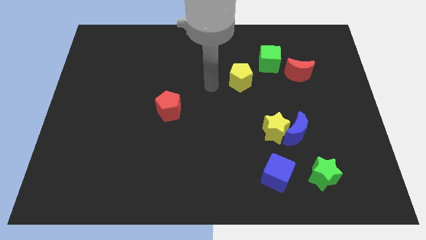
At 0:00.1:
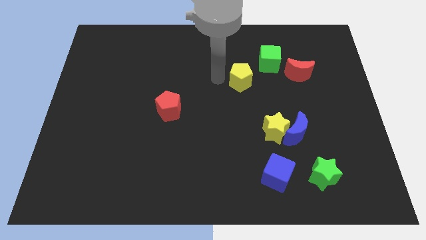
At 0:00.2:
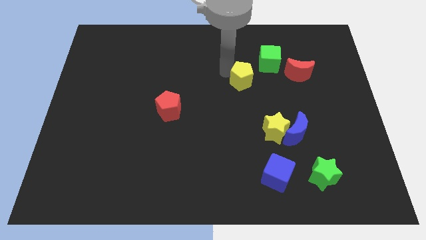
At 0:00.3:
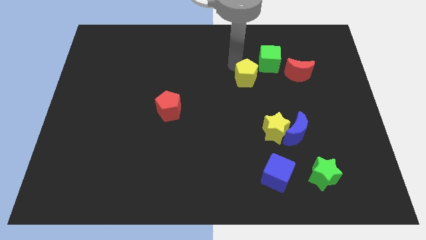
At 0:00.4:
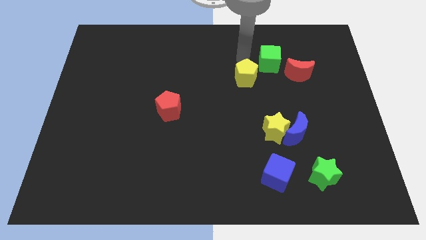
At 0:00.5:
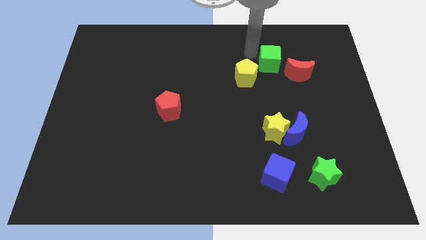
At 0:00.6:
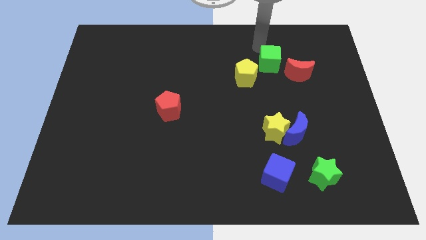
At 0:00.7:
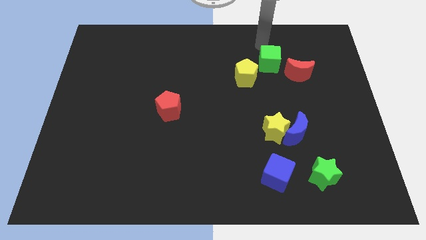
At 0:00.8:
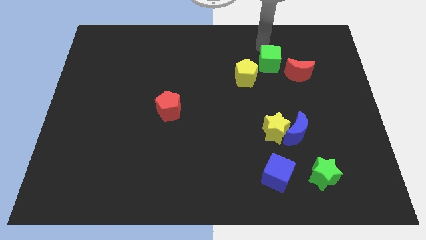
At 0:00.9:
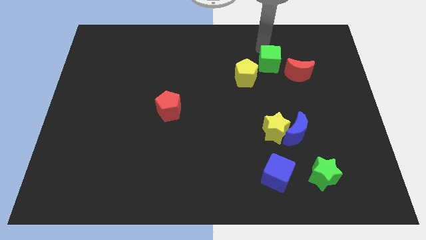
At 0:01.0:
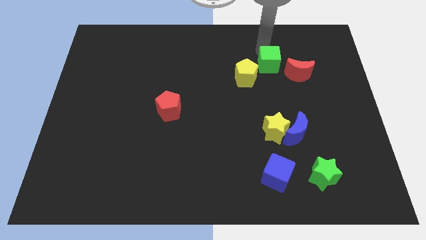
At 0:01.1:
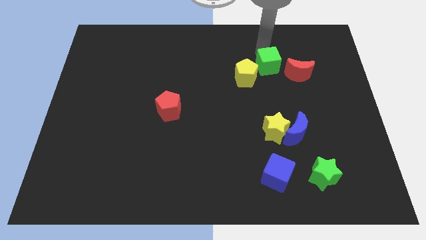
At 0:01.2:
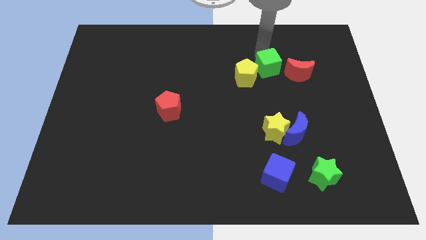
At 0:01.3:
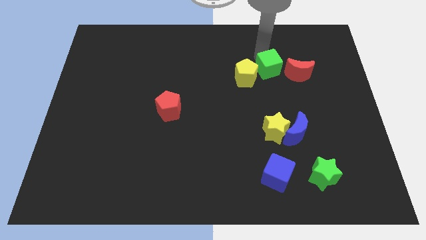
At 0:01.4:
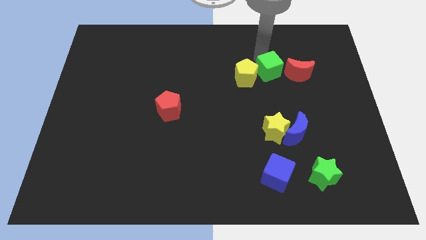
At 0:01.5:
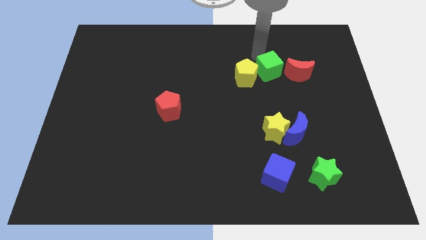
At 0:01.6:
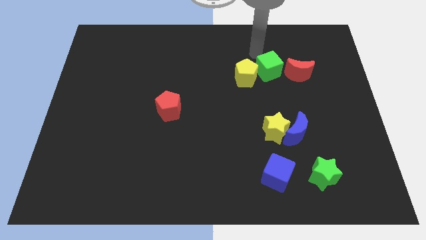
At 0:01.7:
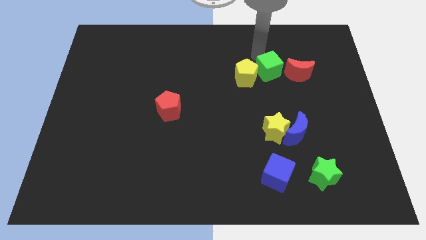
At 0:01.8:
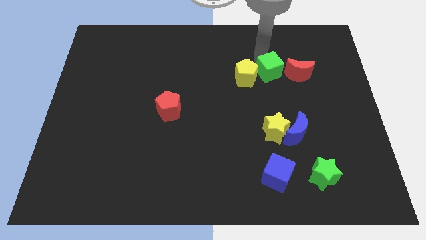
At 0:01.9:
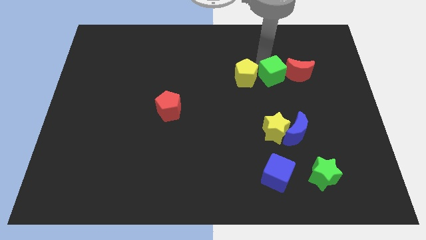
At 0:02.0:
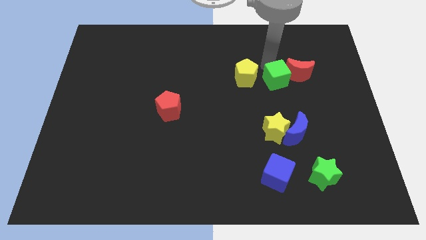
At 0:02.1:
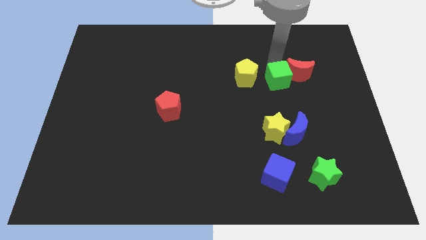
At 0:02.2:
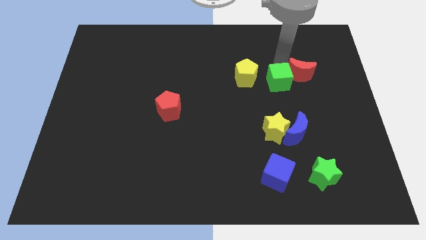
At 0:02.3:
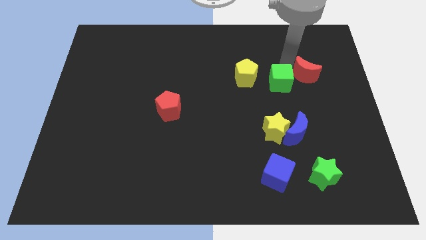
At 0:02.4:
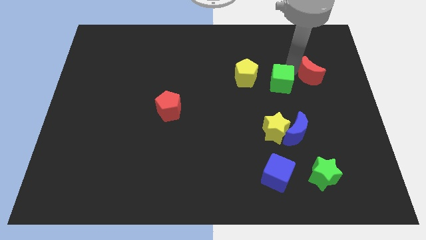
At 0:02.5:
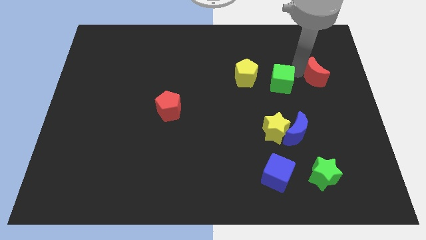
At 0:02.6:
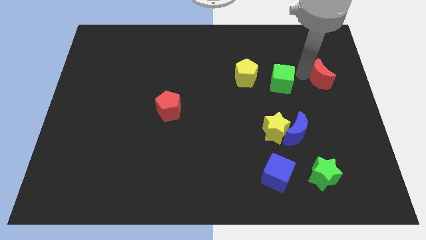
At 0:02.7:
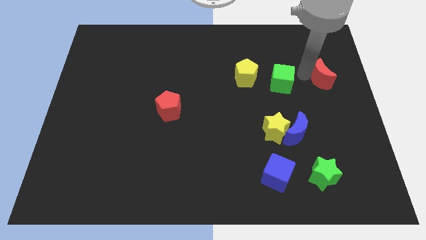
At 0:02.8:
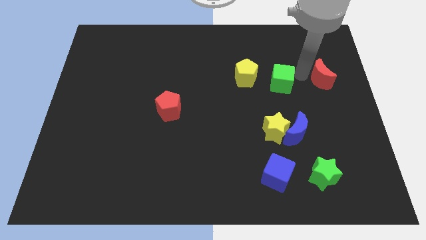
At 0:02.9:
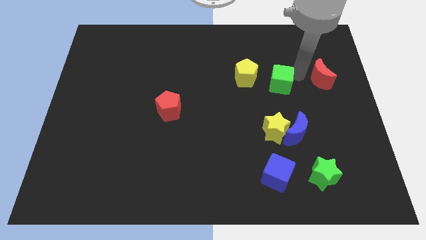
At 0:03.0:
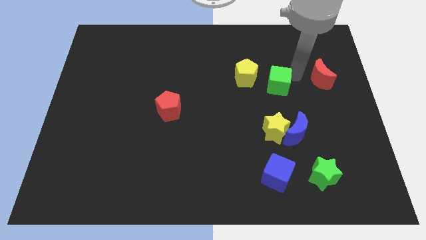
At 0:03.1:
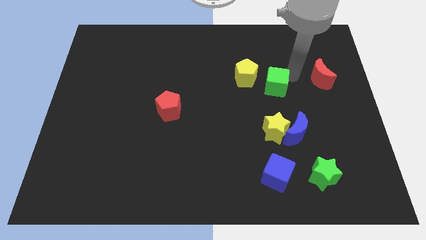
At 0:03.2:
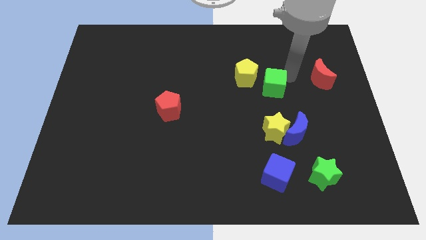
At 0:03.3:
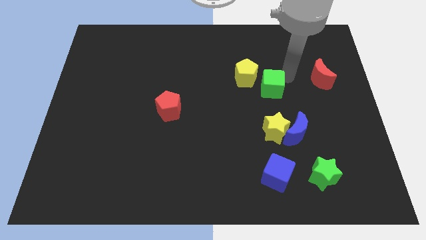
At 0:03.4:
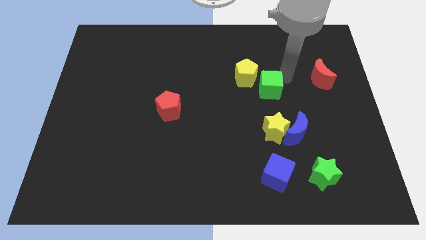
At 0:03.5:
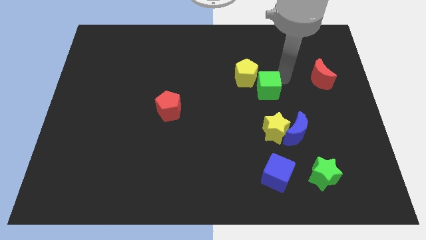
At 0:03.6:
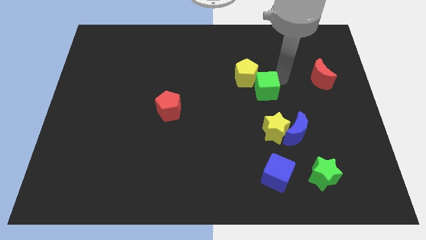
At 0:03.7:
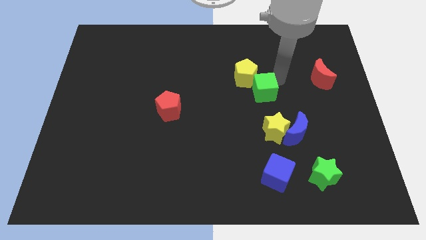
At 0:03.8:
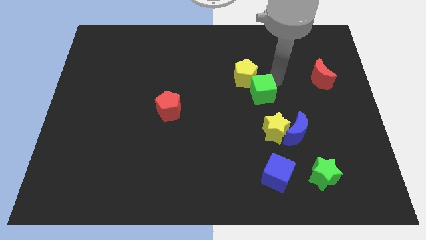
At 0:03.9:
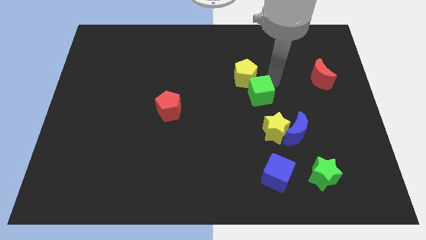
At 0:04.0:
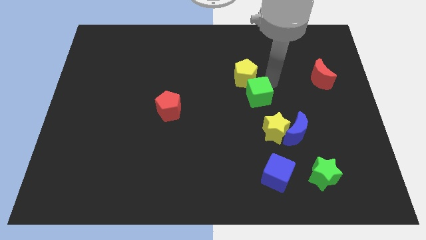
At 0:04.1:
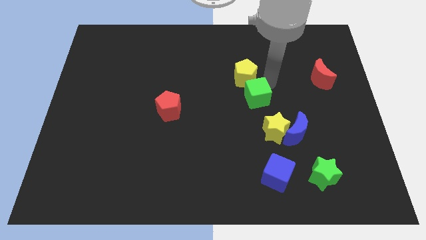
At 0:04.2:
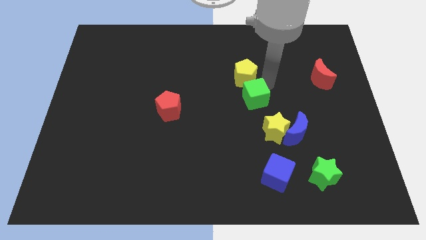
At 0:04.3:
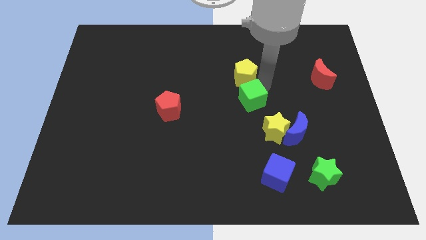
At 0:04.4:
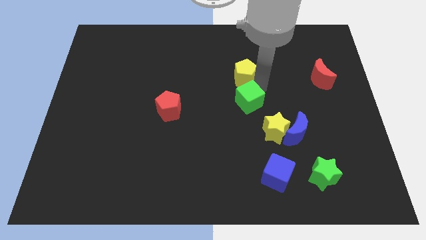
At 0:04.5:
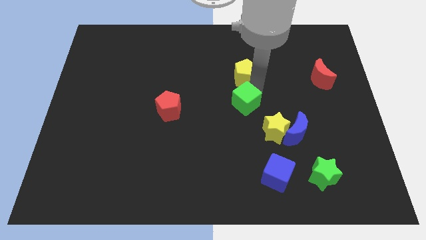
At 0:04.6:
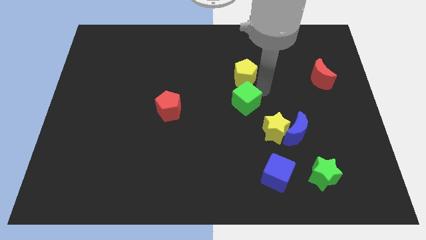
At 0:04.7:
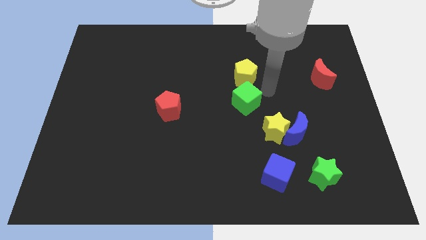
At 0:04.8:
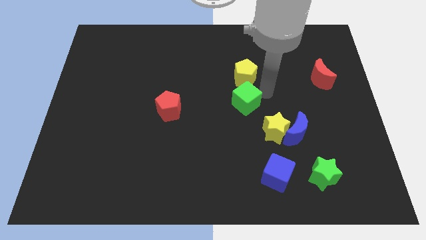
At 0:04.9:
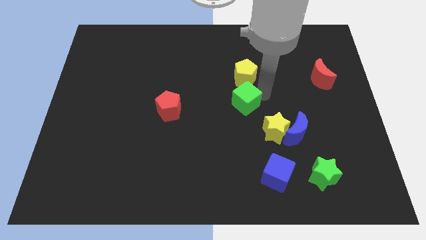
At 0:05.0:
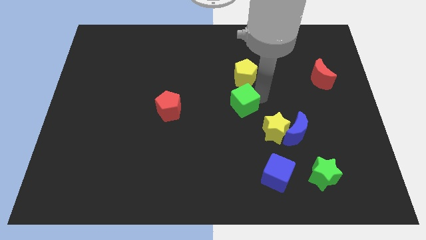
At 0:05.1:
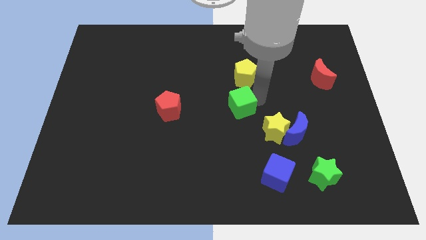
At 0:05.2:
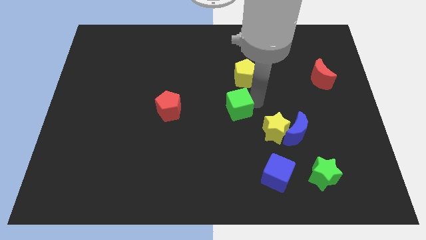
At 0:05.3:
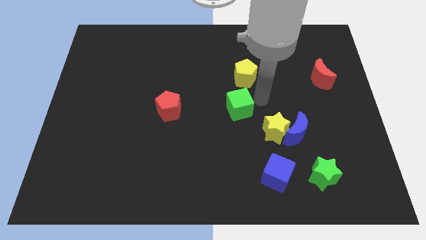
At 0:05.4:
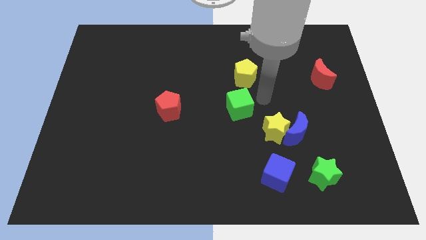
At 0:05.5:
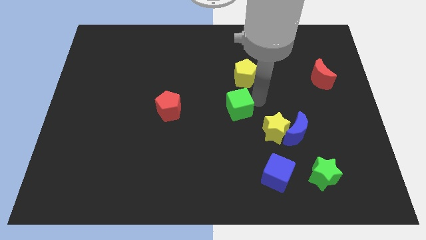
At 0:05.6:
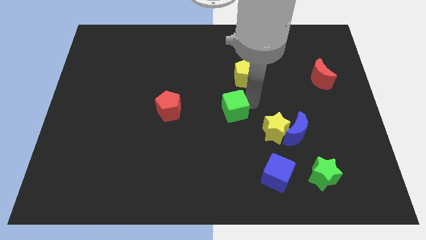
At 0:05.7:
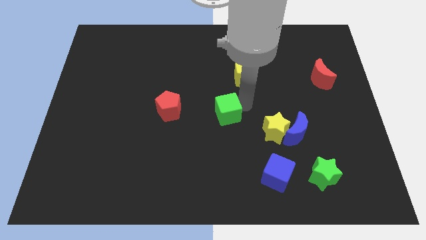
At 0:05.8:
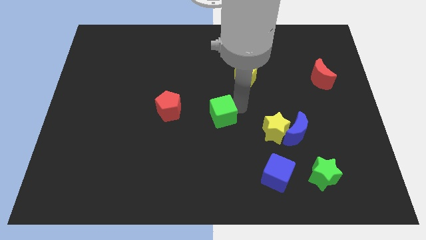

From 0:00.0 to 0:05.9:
move the green cube downwards and to the left diagonally

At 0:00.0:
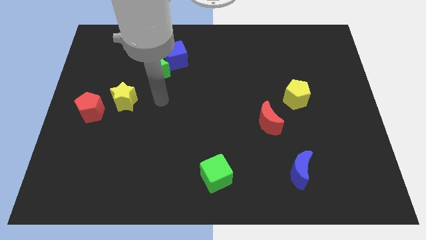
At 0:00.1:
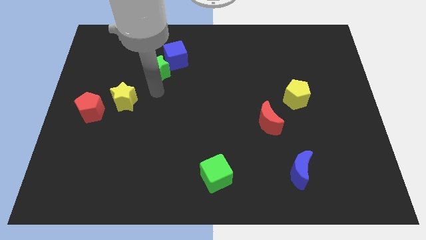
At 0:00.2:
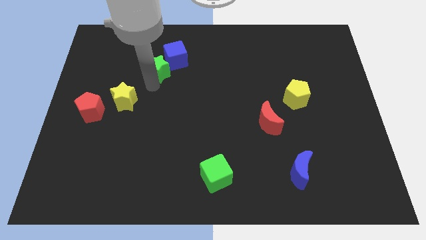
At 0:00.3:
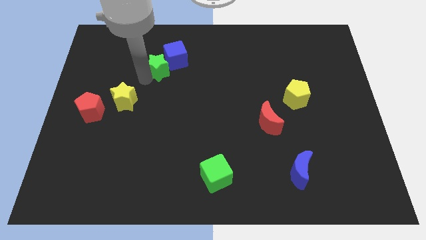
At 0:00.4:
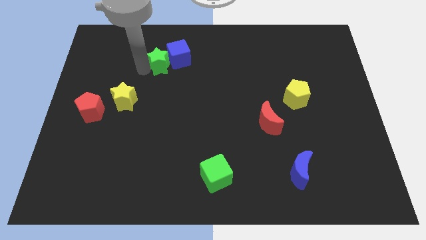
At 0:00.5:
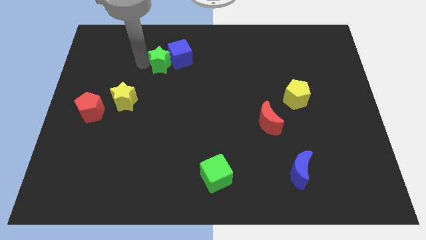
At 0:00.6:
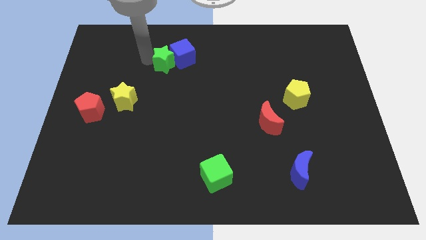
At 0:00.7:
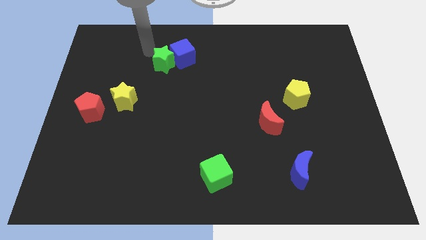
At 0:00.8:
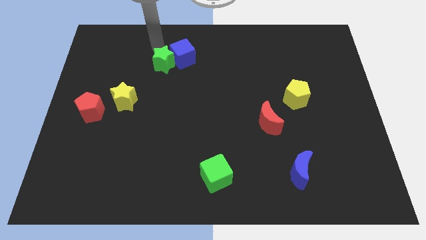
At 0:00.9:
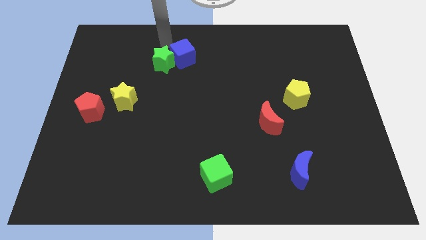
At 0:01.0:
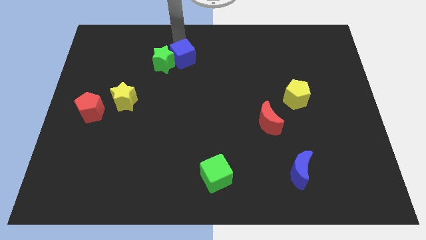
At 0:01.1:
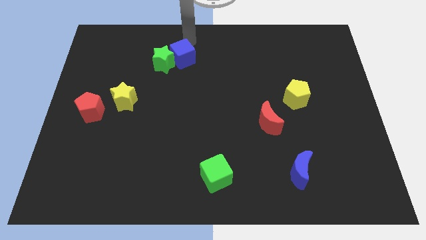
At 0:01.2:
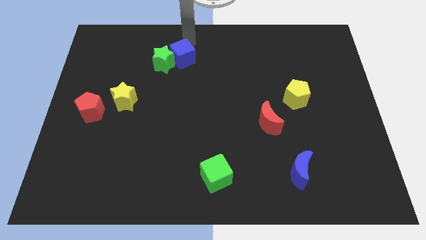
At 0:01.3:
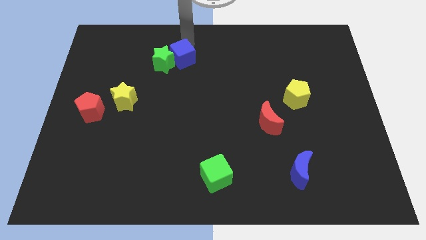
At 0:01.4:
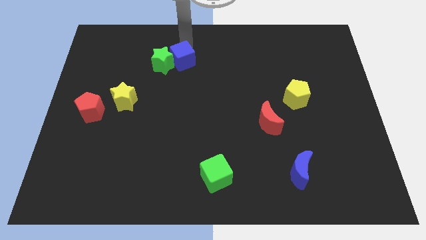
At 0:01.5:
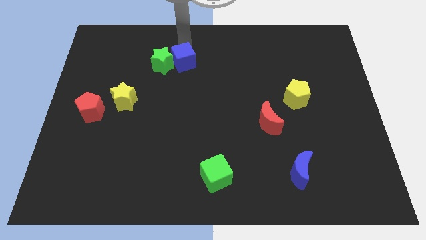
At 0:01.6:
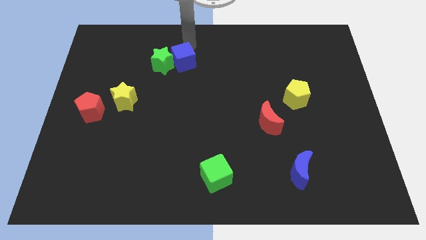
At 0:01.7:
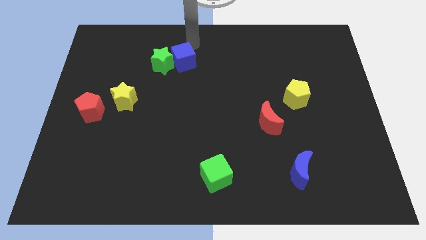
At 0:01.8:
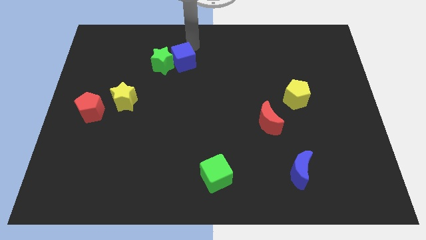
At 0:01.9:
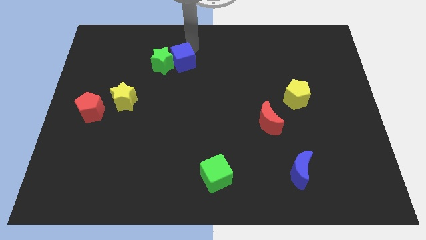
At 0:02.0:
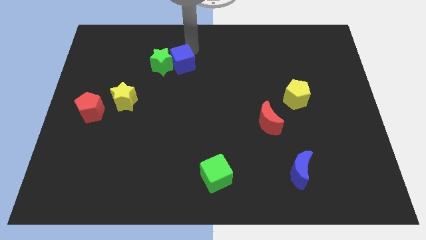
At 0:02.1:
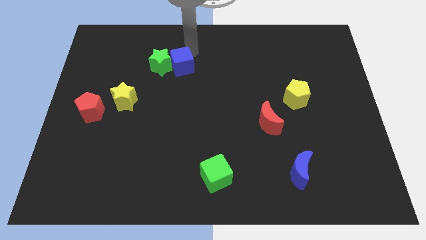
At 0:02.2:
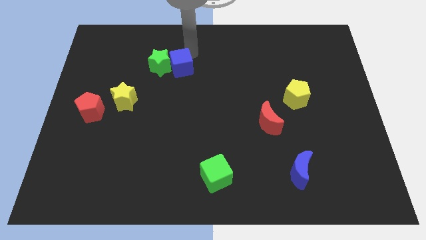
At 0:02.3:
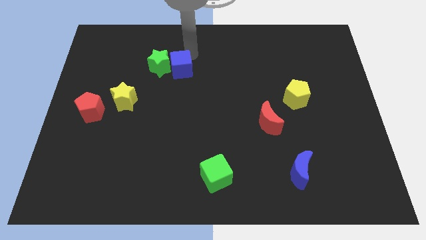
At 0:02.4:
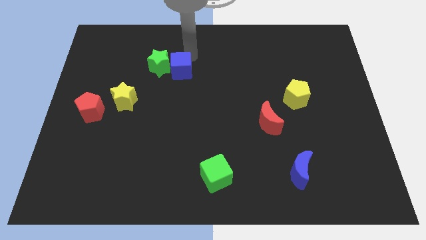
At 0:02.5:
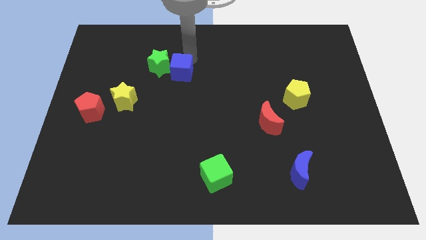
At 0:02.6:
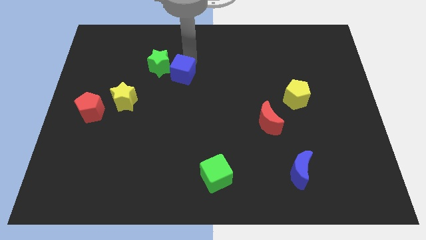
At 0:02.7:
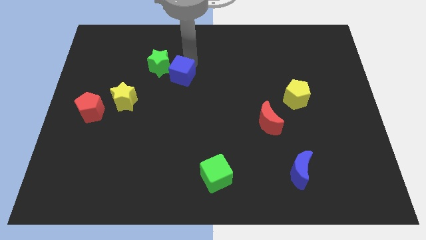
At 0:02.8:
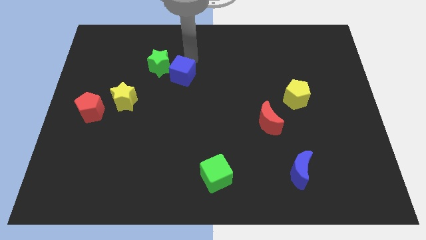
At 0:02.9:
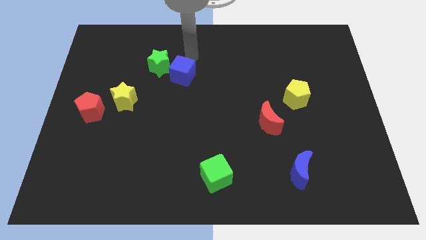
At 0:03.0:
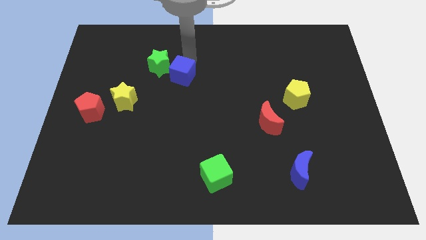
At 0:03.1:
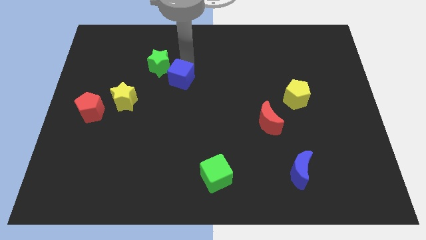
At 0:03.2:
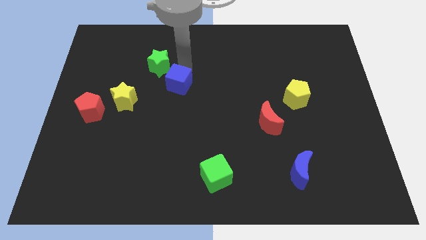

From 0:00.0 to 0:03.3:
move the blue cube downwards slightly
